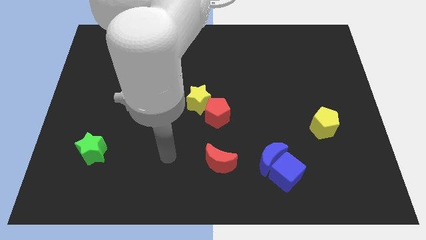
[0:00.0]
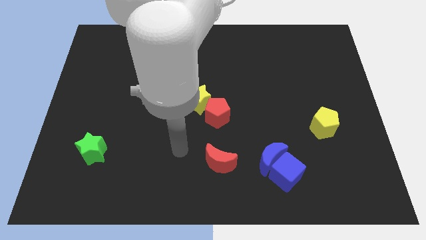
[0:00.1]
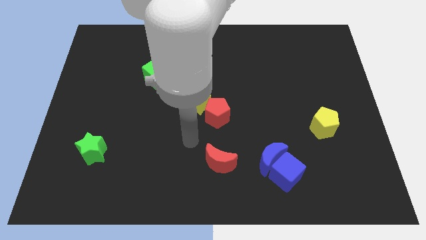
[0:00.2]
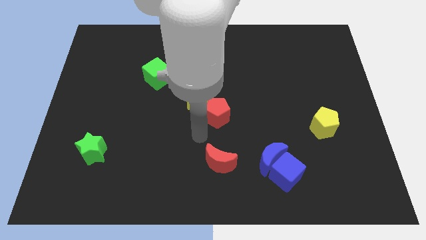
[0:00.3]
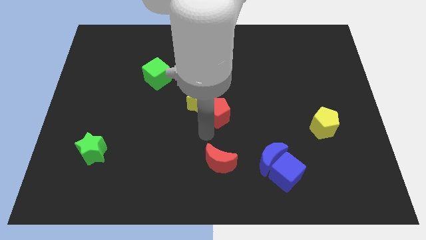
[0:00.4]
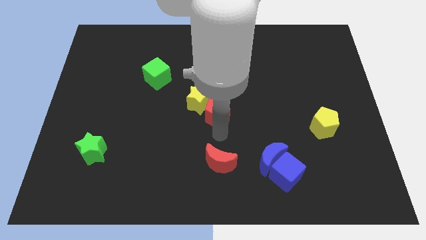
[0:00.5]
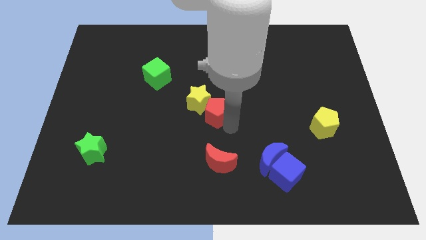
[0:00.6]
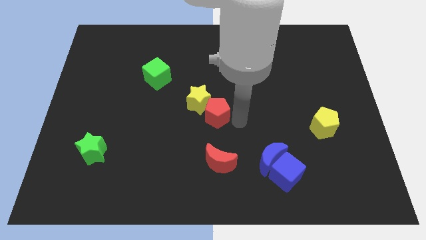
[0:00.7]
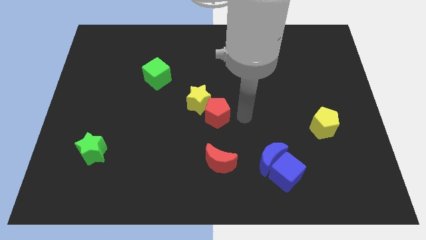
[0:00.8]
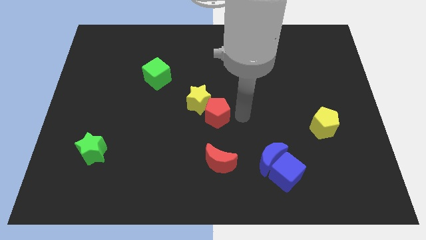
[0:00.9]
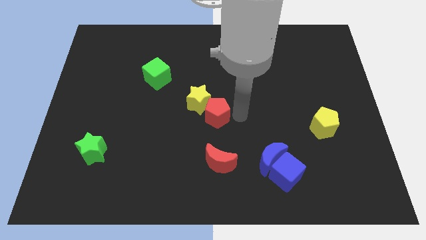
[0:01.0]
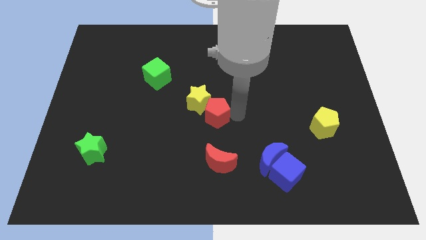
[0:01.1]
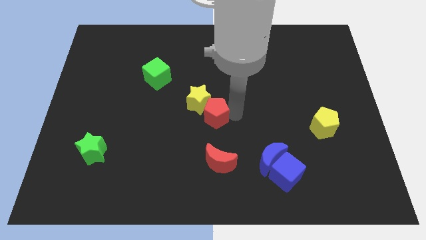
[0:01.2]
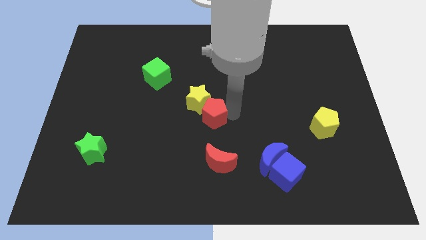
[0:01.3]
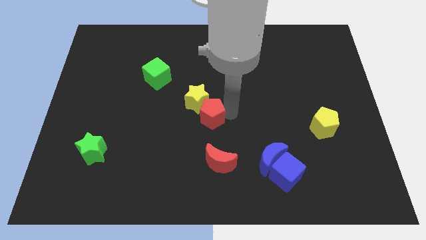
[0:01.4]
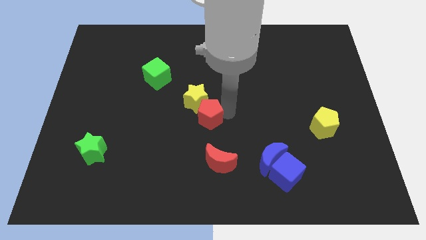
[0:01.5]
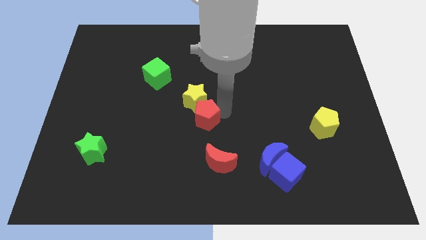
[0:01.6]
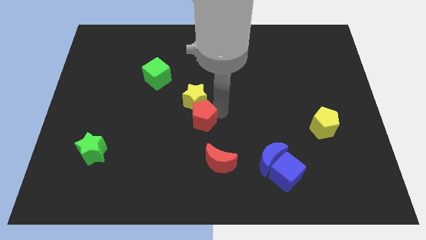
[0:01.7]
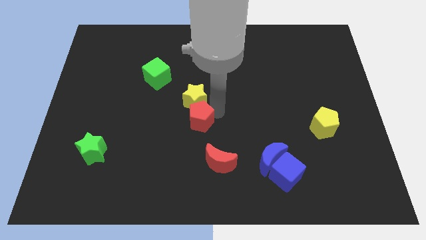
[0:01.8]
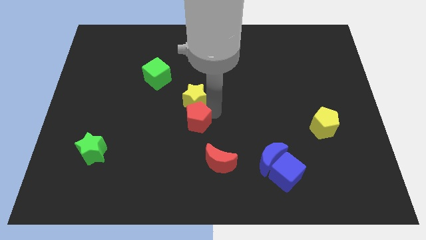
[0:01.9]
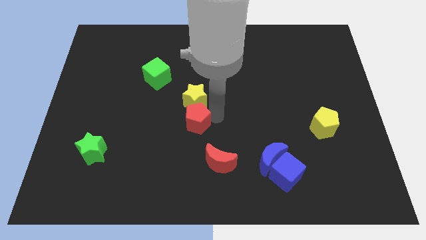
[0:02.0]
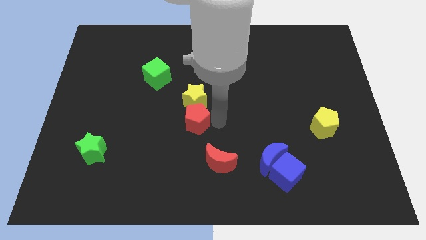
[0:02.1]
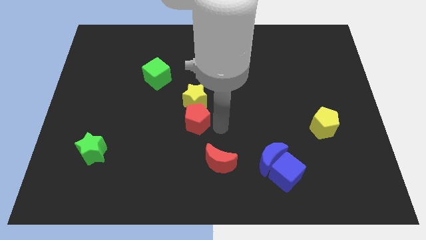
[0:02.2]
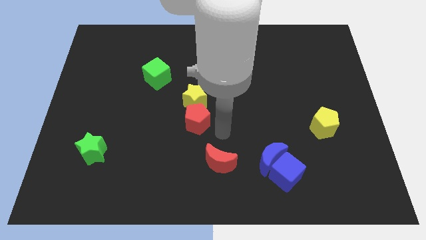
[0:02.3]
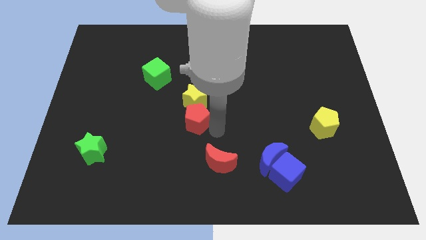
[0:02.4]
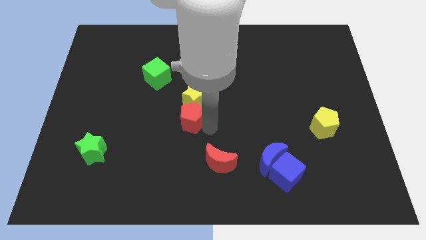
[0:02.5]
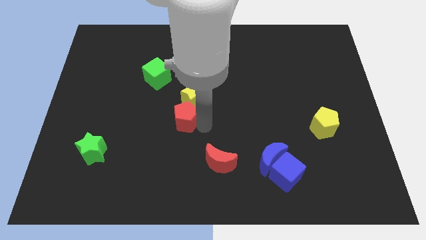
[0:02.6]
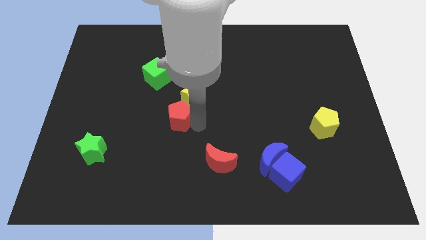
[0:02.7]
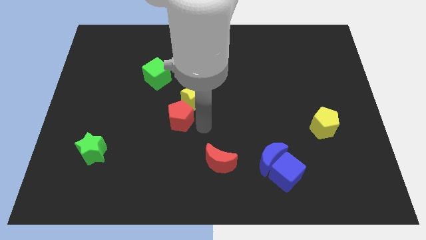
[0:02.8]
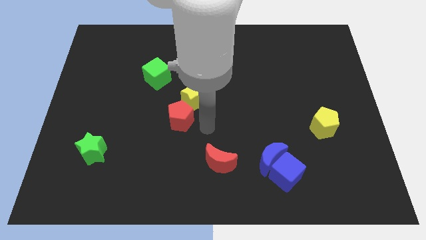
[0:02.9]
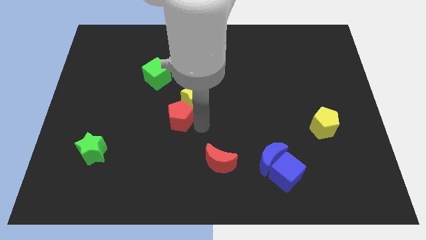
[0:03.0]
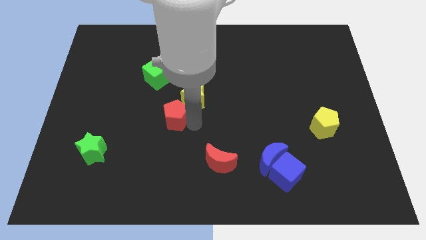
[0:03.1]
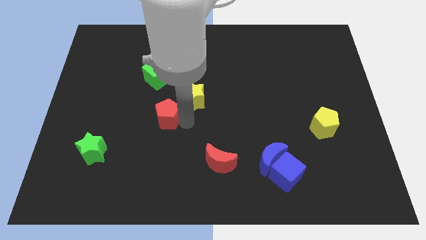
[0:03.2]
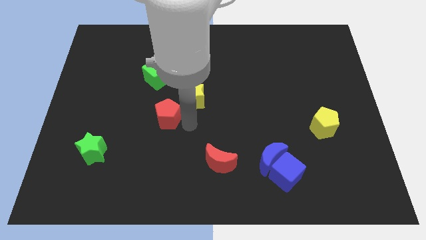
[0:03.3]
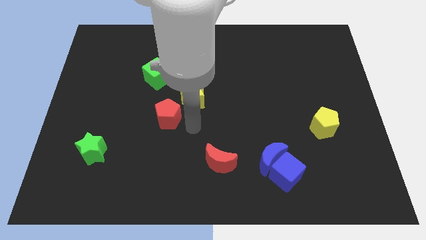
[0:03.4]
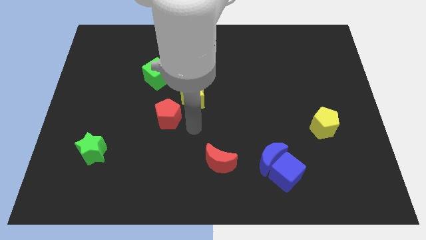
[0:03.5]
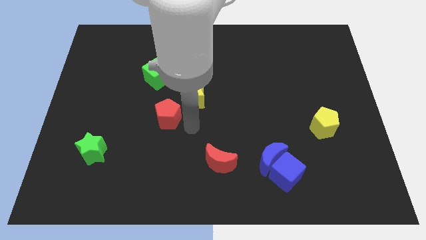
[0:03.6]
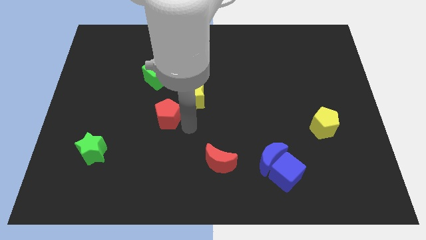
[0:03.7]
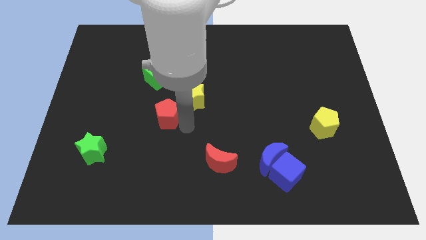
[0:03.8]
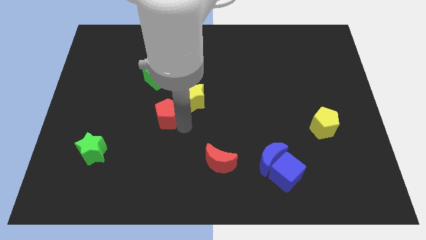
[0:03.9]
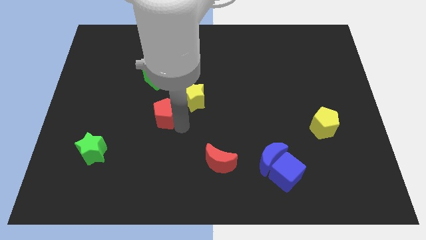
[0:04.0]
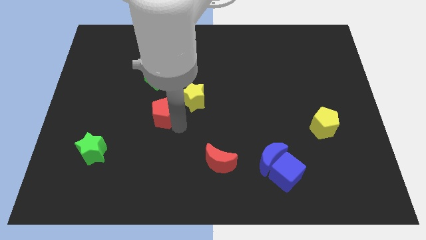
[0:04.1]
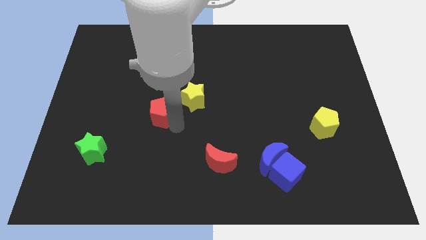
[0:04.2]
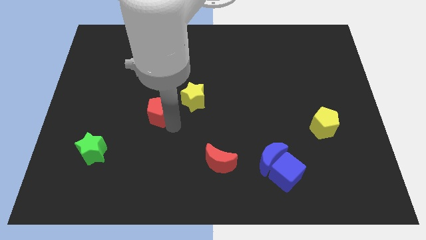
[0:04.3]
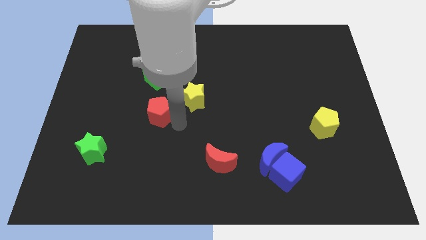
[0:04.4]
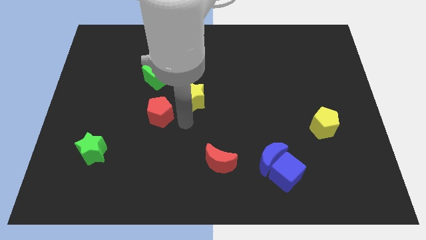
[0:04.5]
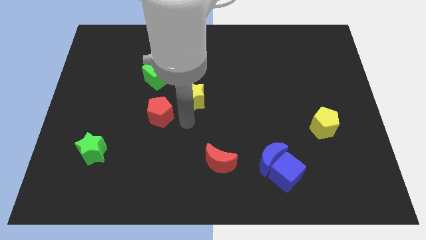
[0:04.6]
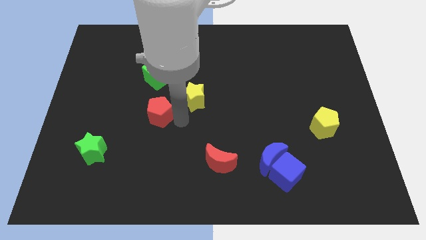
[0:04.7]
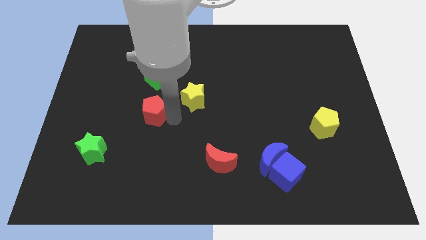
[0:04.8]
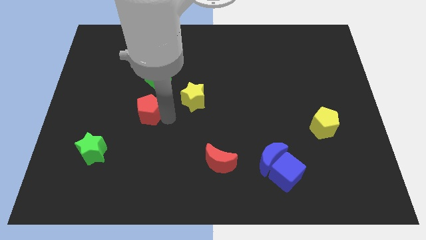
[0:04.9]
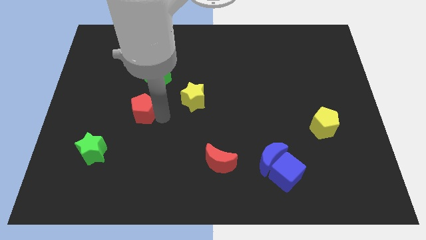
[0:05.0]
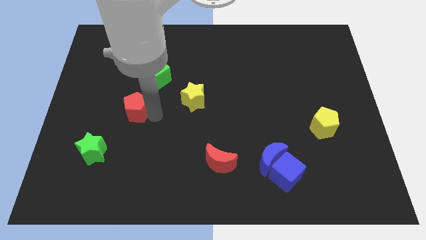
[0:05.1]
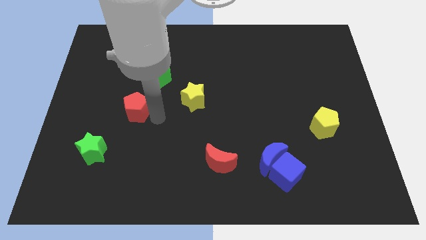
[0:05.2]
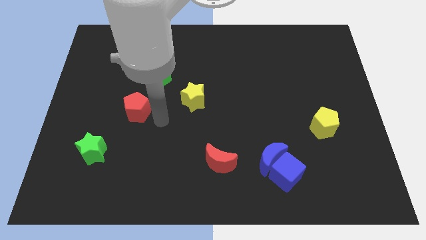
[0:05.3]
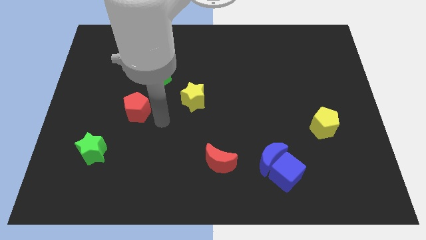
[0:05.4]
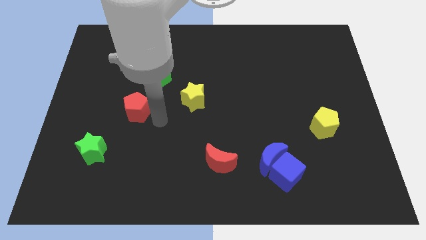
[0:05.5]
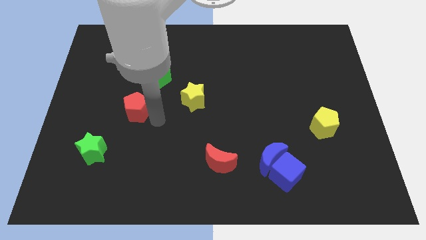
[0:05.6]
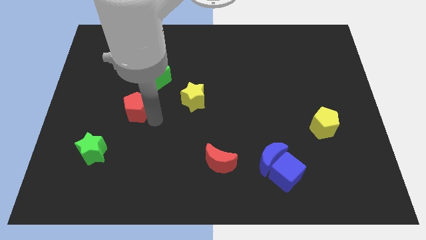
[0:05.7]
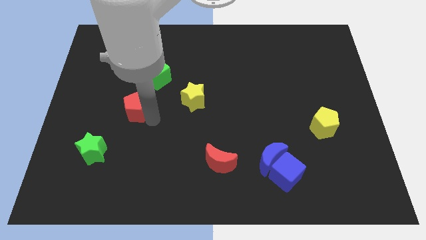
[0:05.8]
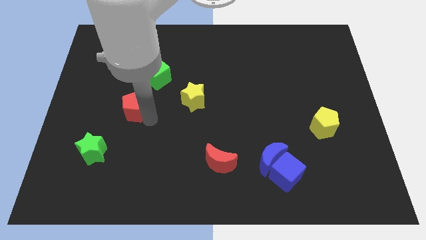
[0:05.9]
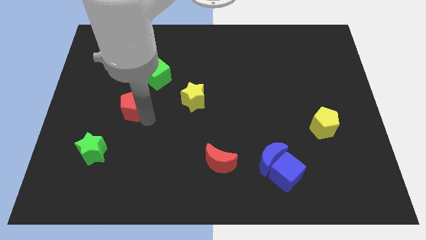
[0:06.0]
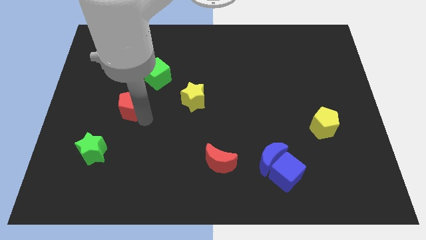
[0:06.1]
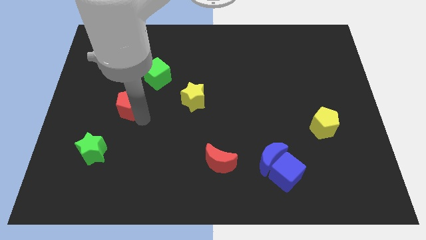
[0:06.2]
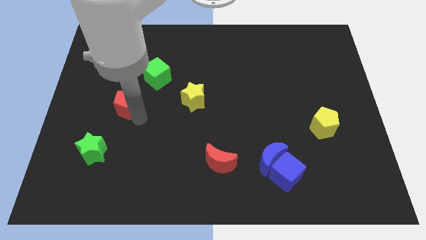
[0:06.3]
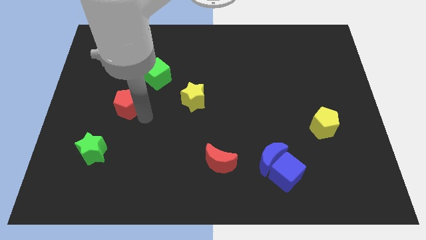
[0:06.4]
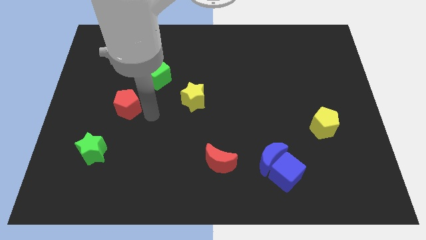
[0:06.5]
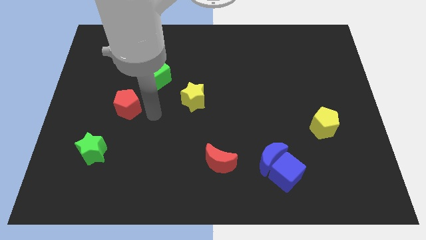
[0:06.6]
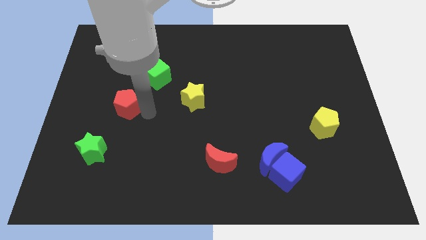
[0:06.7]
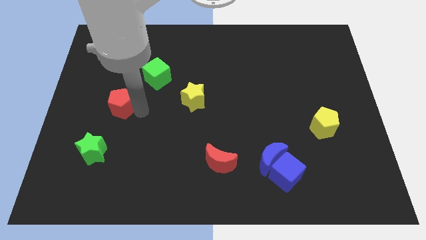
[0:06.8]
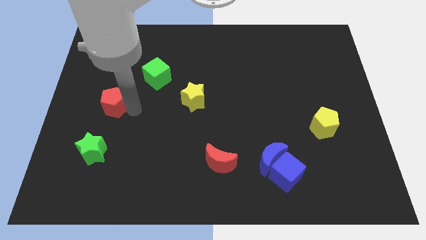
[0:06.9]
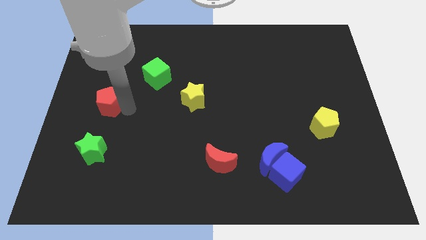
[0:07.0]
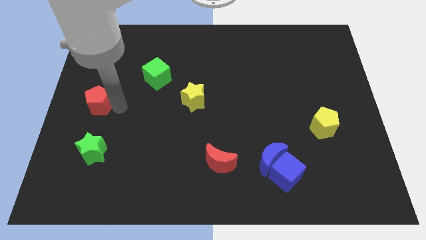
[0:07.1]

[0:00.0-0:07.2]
move the red pentagon to the center left
